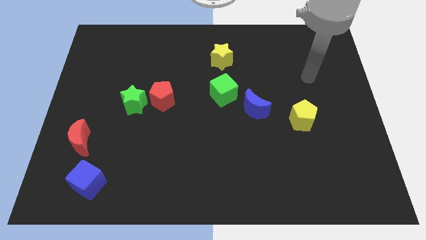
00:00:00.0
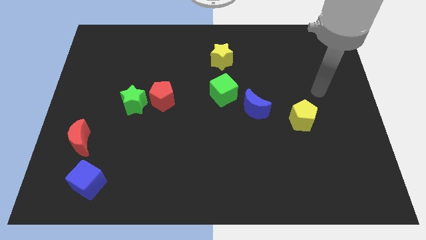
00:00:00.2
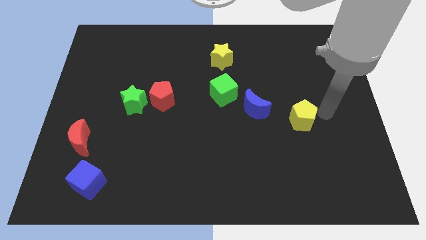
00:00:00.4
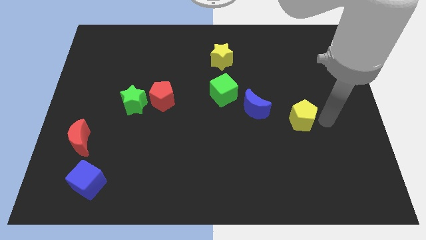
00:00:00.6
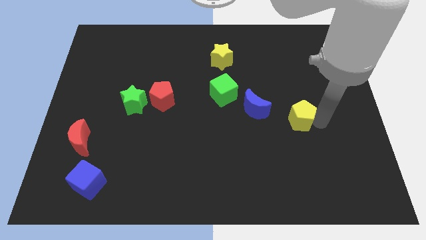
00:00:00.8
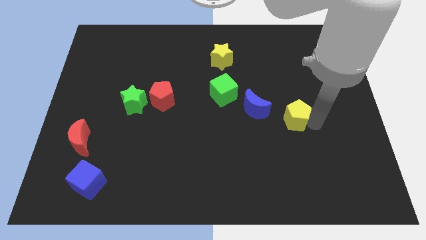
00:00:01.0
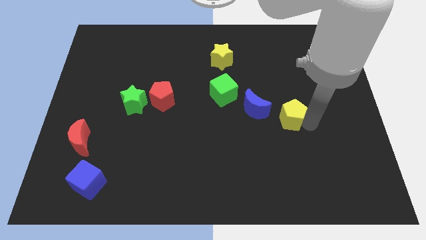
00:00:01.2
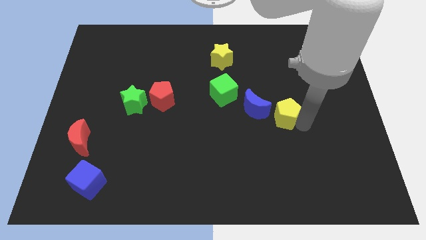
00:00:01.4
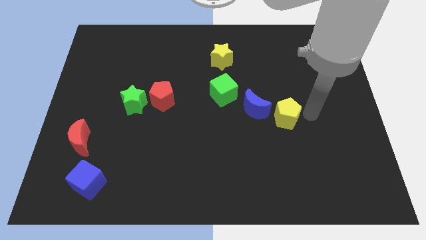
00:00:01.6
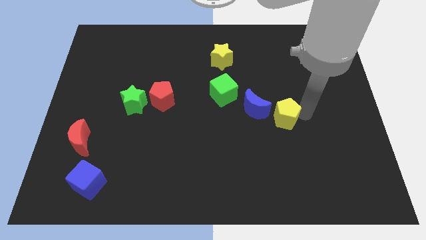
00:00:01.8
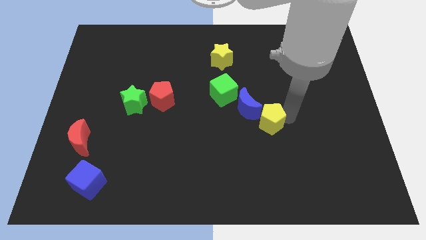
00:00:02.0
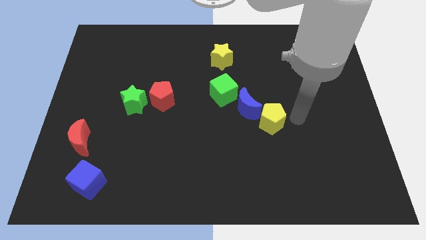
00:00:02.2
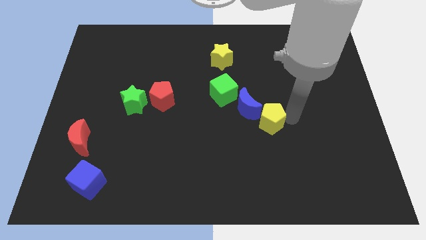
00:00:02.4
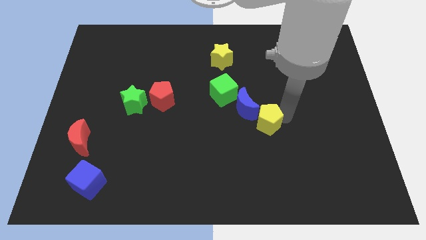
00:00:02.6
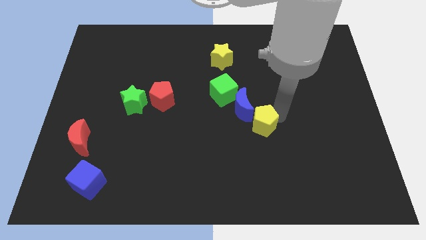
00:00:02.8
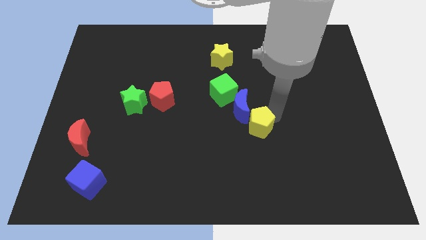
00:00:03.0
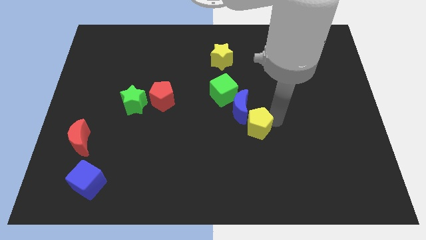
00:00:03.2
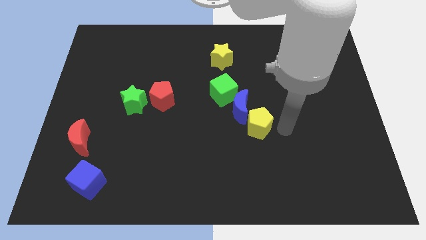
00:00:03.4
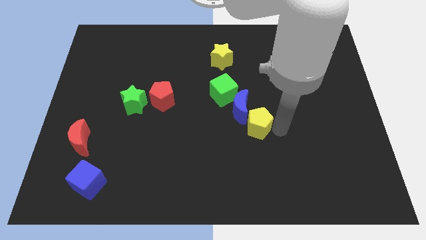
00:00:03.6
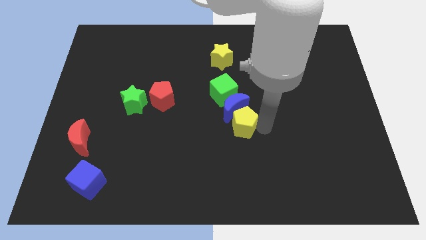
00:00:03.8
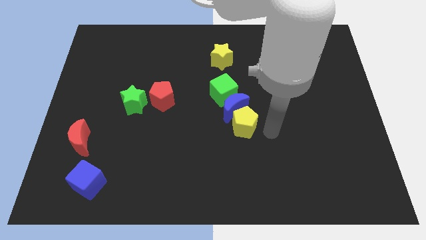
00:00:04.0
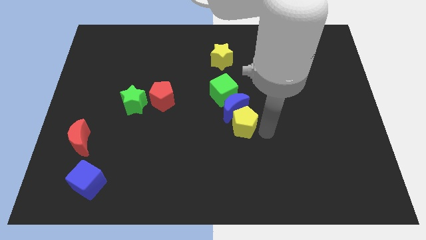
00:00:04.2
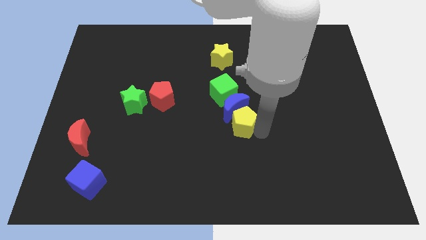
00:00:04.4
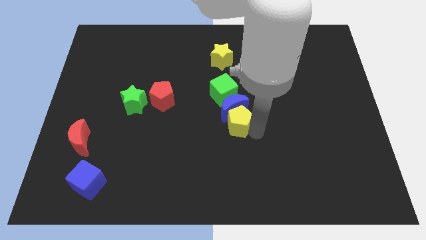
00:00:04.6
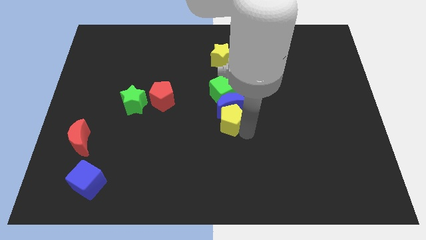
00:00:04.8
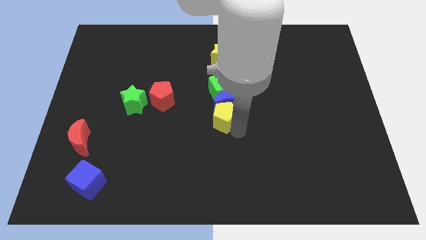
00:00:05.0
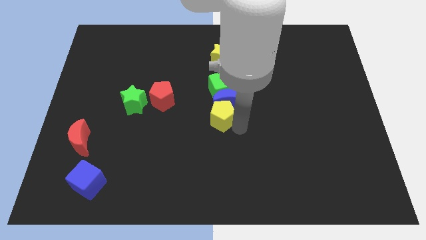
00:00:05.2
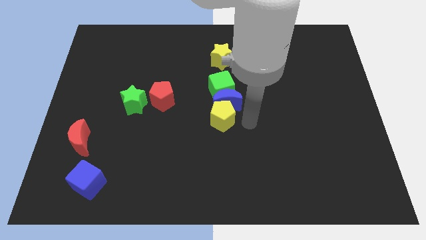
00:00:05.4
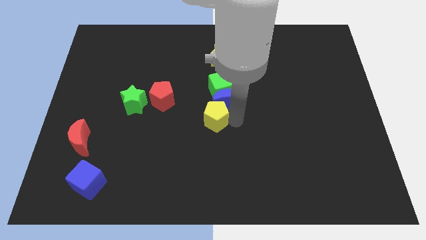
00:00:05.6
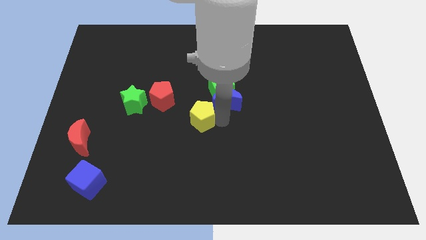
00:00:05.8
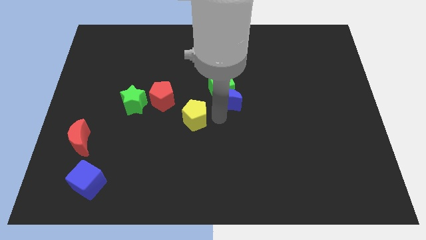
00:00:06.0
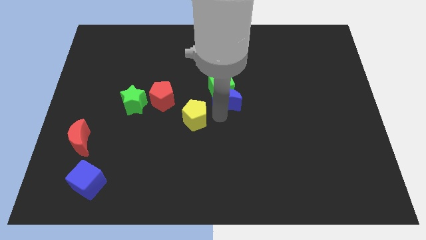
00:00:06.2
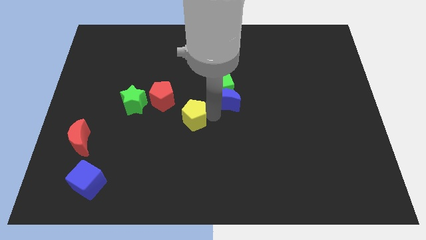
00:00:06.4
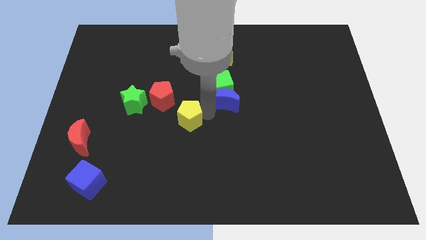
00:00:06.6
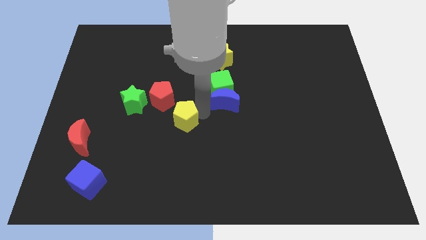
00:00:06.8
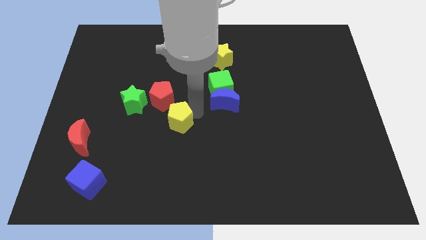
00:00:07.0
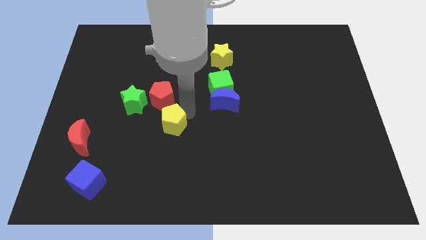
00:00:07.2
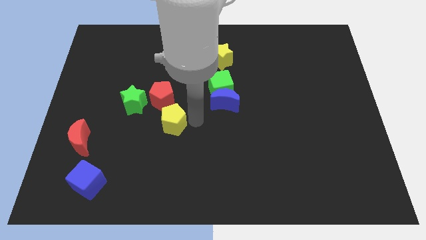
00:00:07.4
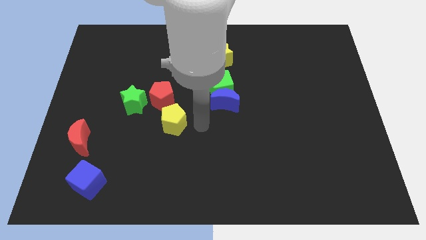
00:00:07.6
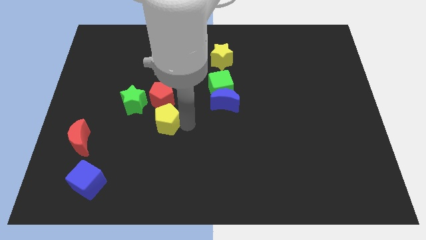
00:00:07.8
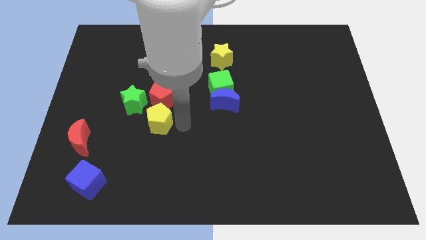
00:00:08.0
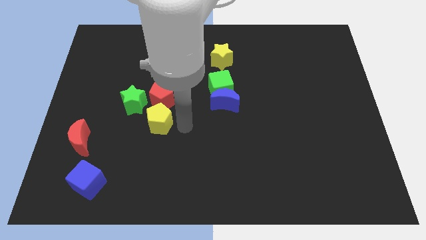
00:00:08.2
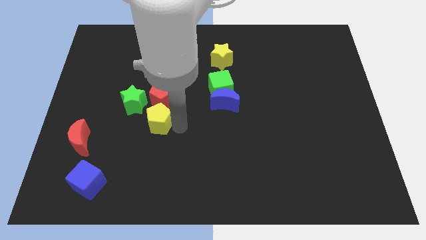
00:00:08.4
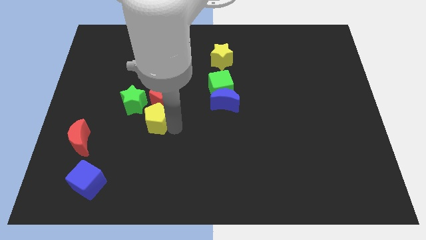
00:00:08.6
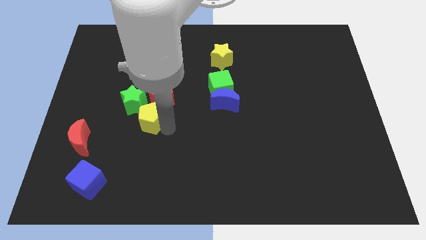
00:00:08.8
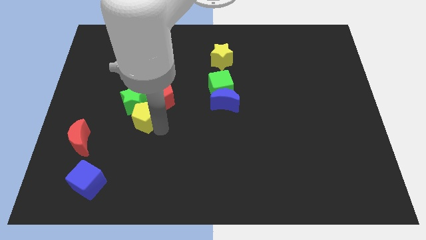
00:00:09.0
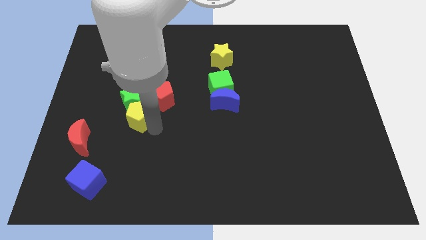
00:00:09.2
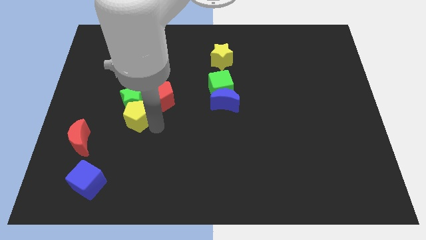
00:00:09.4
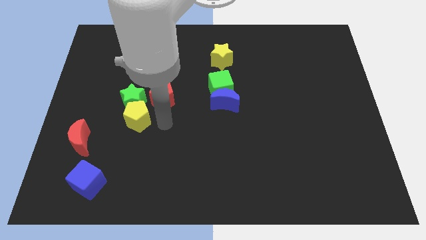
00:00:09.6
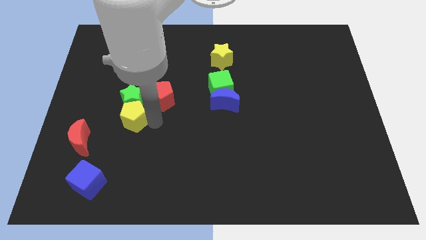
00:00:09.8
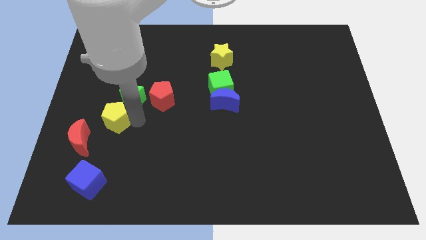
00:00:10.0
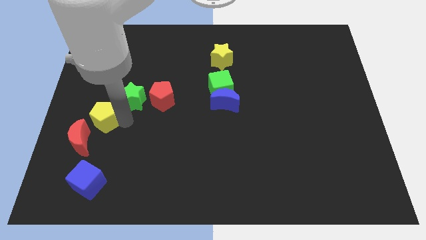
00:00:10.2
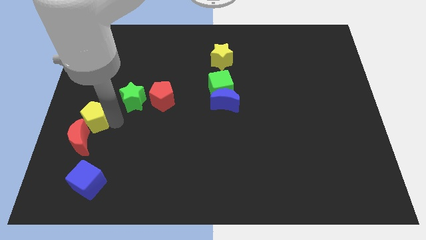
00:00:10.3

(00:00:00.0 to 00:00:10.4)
put the yellow pentagon to the left side of the board

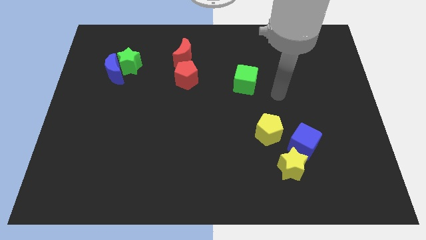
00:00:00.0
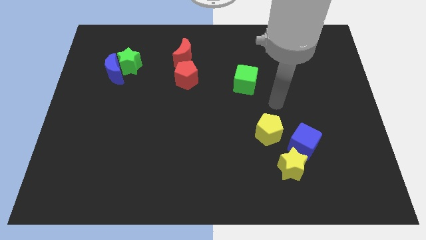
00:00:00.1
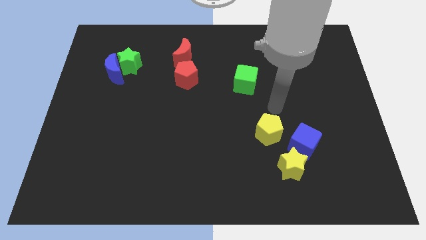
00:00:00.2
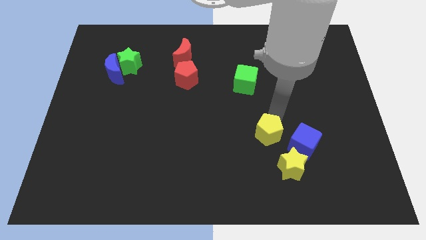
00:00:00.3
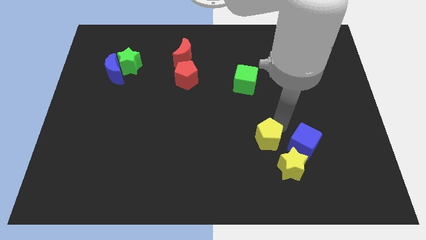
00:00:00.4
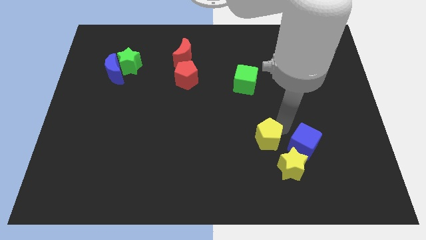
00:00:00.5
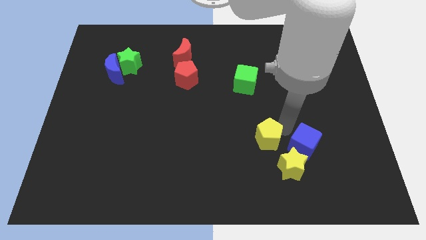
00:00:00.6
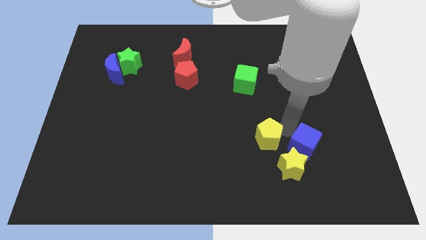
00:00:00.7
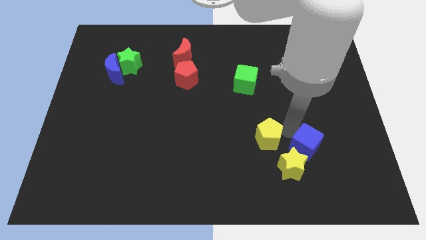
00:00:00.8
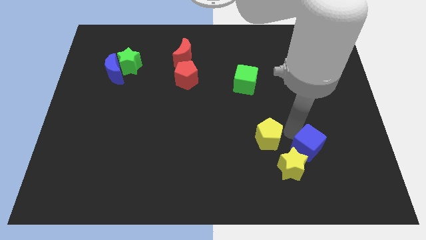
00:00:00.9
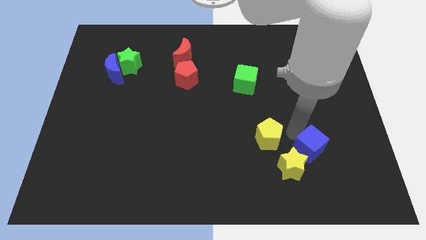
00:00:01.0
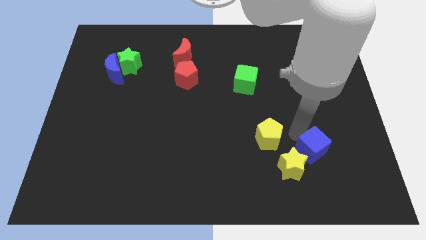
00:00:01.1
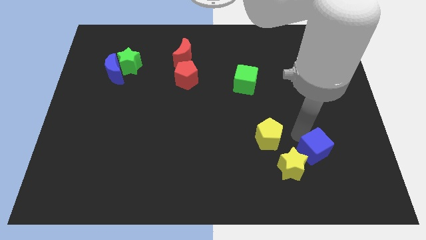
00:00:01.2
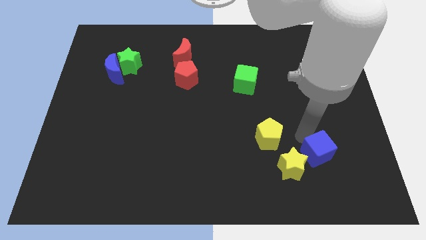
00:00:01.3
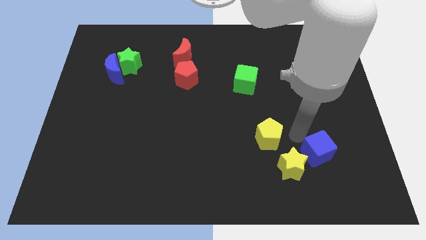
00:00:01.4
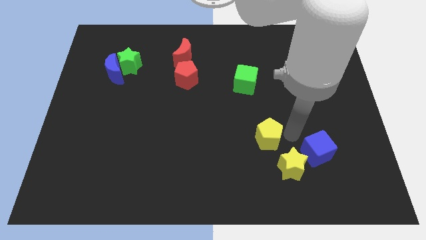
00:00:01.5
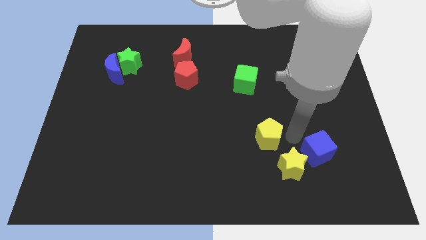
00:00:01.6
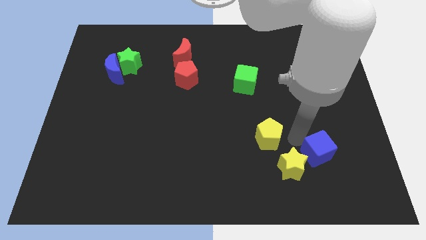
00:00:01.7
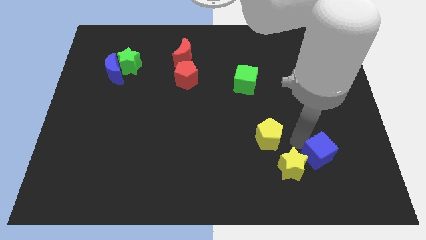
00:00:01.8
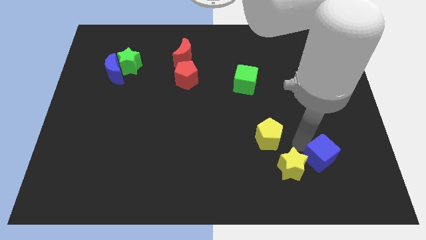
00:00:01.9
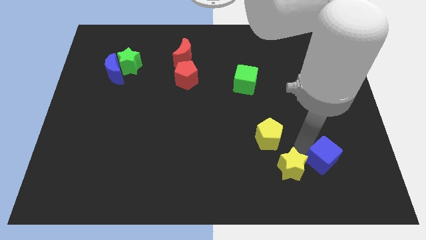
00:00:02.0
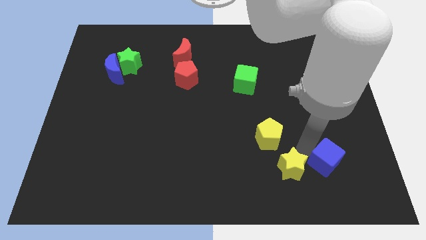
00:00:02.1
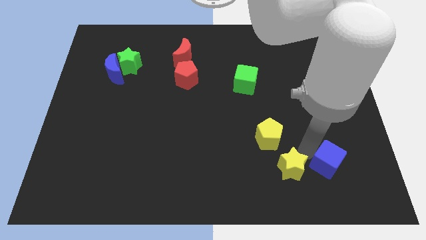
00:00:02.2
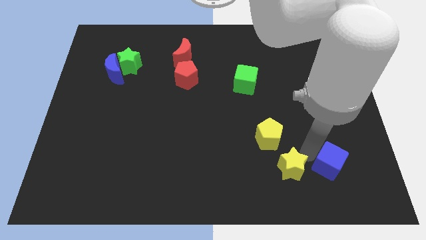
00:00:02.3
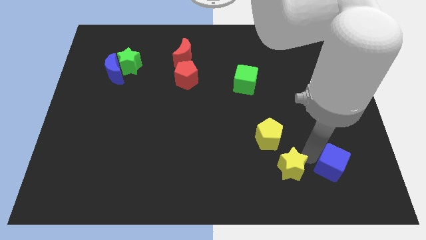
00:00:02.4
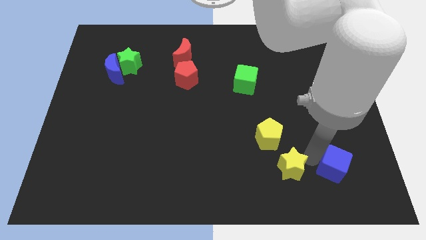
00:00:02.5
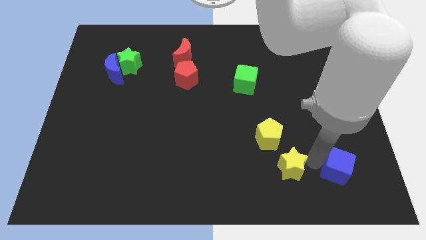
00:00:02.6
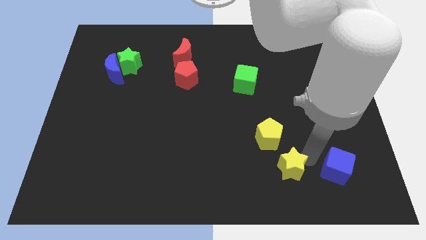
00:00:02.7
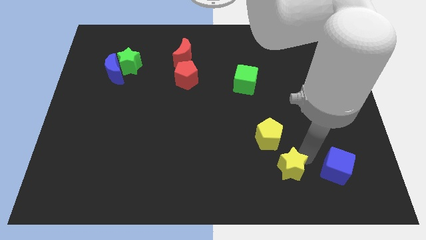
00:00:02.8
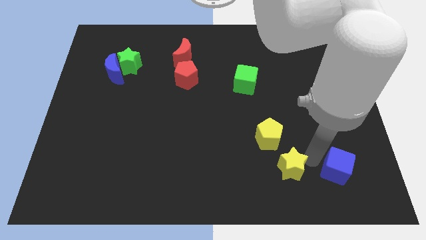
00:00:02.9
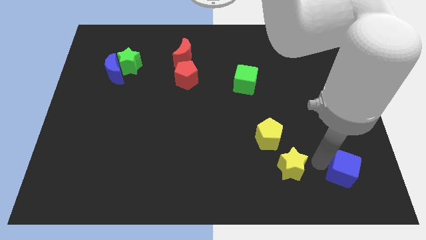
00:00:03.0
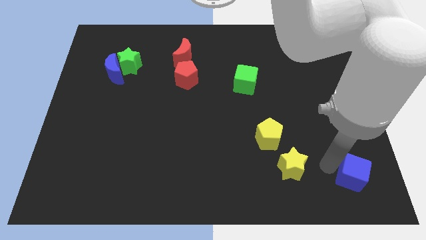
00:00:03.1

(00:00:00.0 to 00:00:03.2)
slide the blue cube to the bottom right
